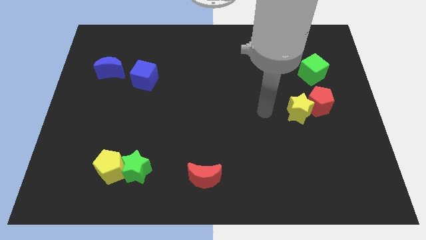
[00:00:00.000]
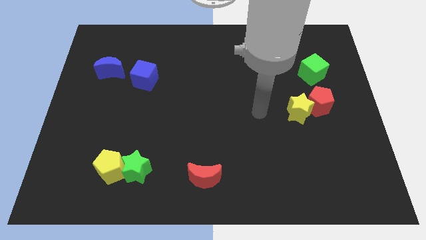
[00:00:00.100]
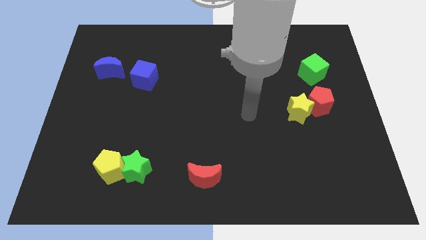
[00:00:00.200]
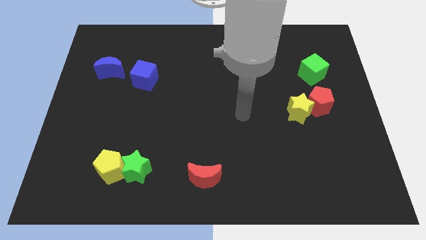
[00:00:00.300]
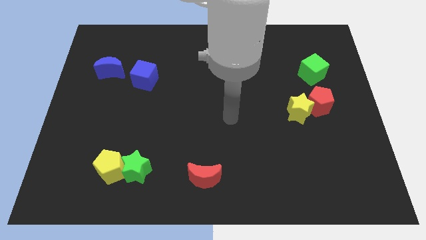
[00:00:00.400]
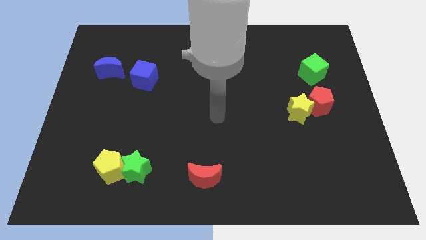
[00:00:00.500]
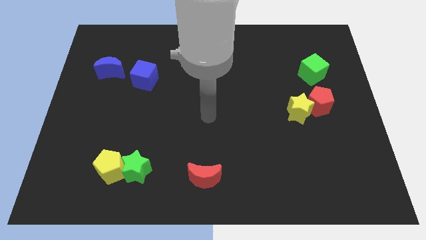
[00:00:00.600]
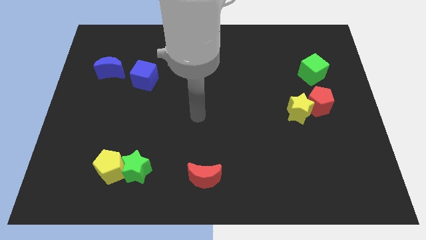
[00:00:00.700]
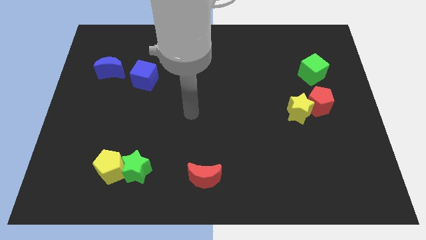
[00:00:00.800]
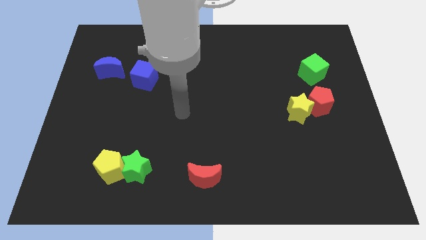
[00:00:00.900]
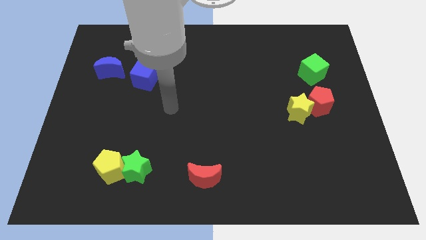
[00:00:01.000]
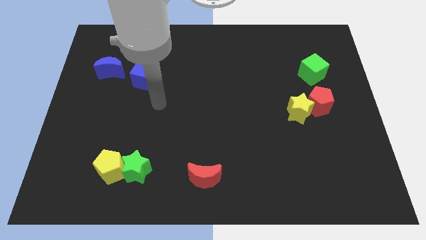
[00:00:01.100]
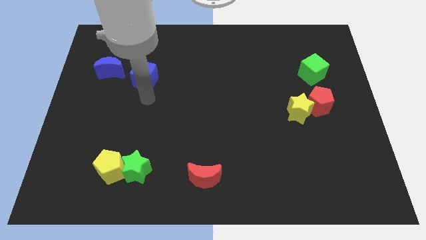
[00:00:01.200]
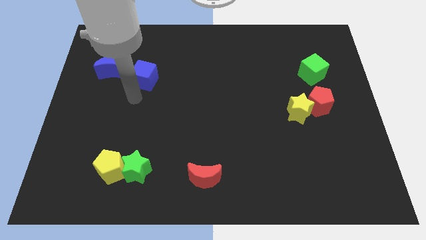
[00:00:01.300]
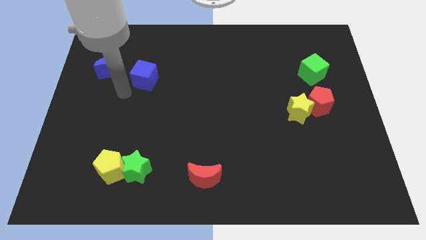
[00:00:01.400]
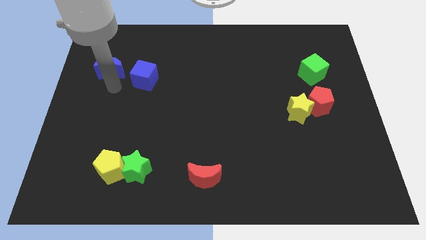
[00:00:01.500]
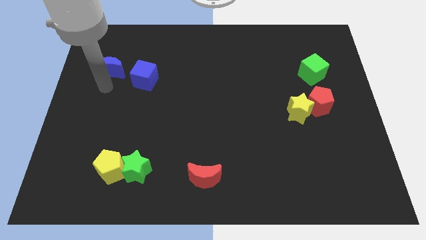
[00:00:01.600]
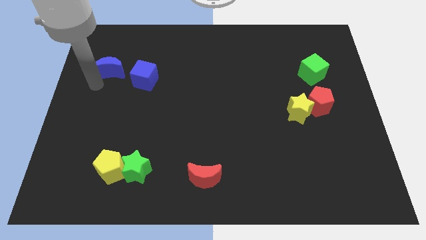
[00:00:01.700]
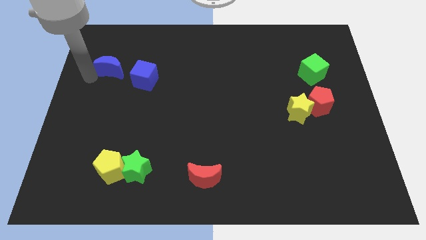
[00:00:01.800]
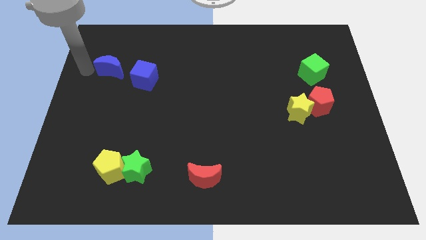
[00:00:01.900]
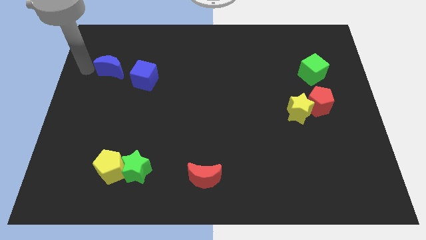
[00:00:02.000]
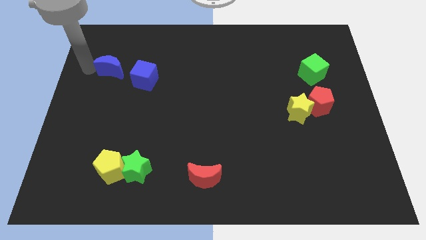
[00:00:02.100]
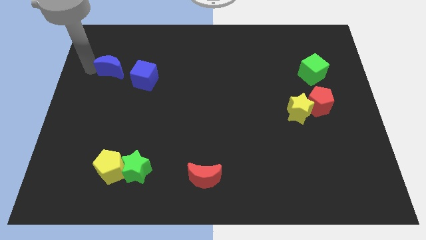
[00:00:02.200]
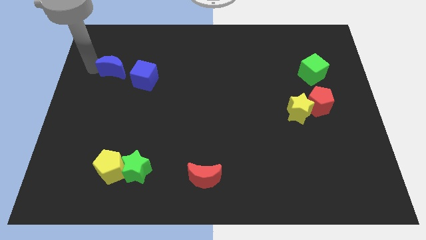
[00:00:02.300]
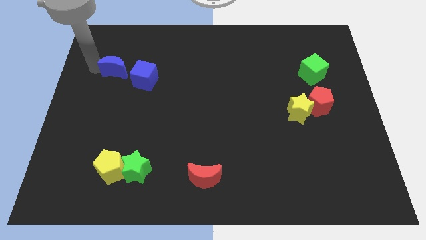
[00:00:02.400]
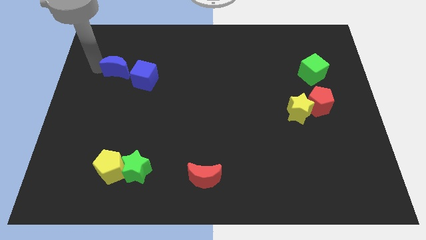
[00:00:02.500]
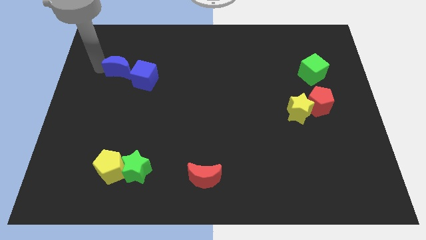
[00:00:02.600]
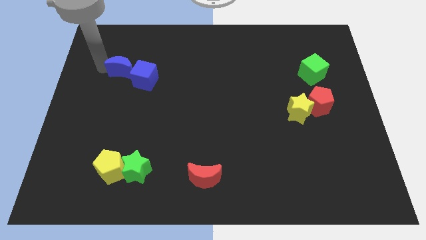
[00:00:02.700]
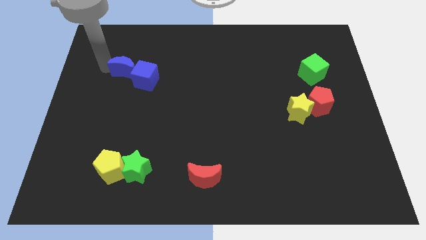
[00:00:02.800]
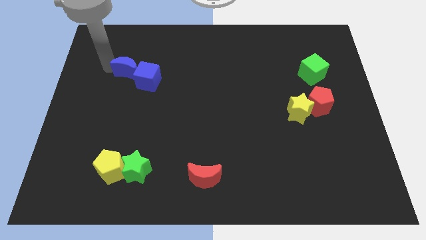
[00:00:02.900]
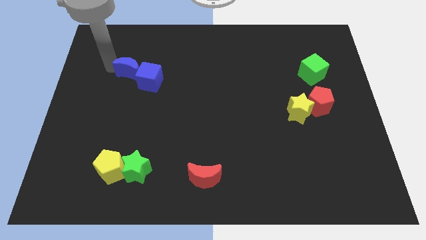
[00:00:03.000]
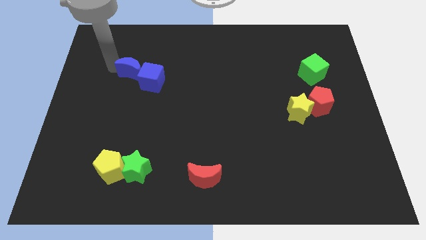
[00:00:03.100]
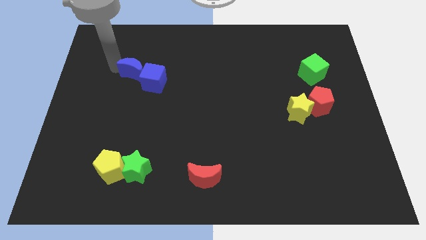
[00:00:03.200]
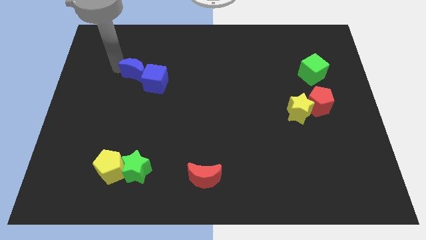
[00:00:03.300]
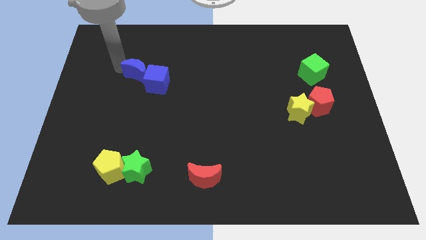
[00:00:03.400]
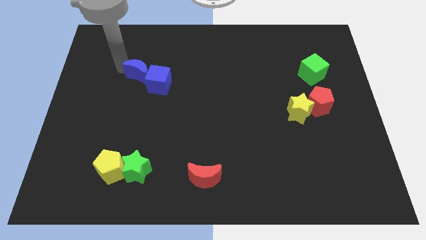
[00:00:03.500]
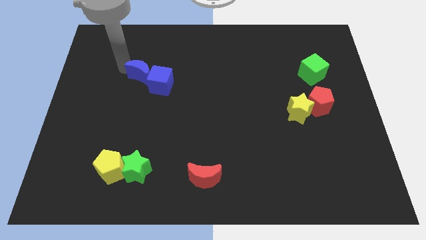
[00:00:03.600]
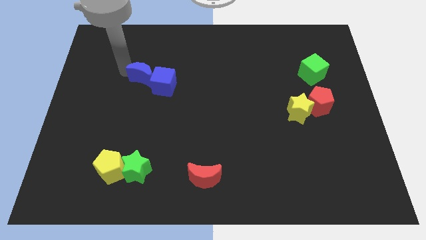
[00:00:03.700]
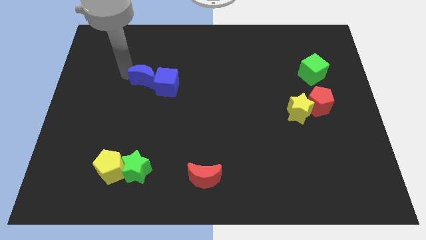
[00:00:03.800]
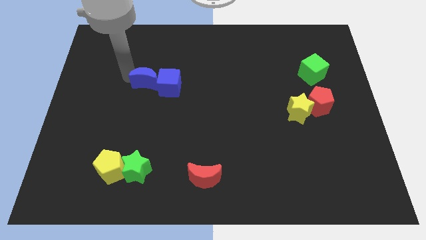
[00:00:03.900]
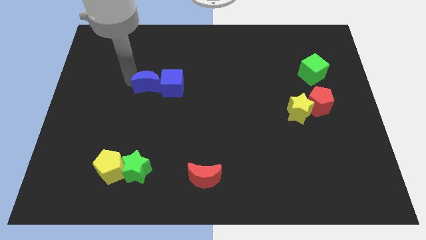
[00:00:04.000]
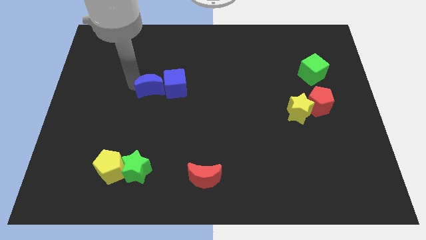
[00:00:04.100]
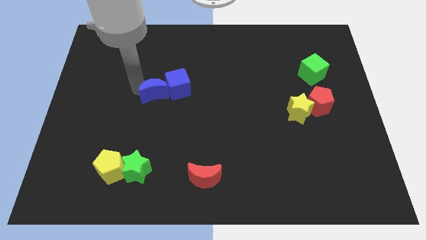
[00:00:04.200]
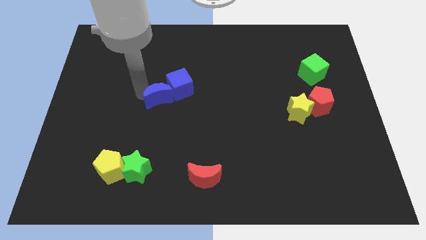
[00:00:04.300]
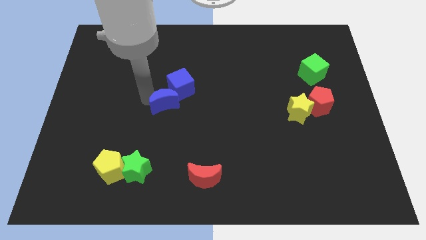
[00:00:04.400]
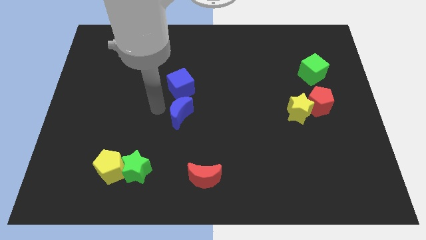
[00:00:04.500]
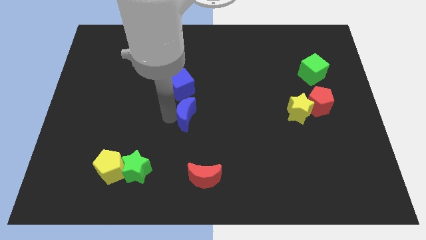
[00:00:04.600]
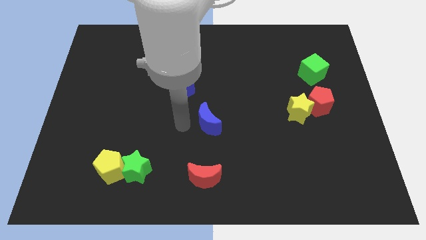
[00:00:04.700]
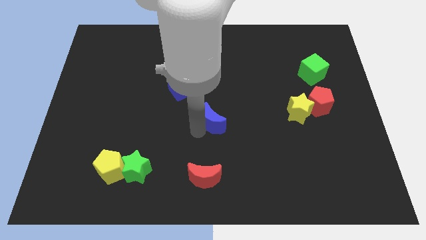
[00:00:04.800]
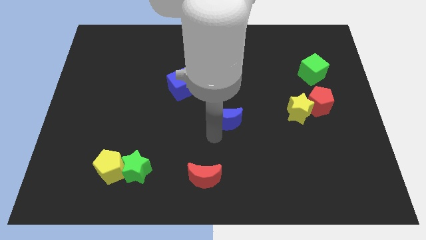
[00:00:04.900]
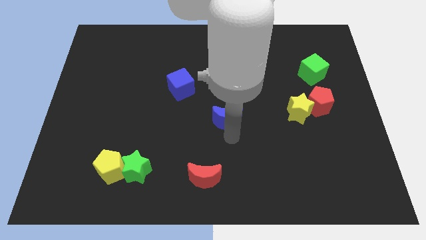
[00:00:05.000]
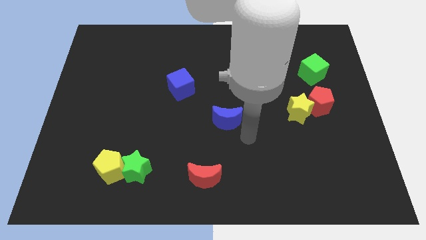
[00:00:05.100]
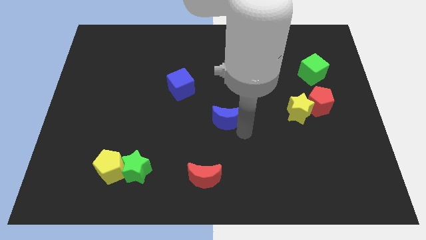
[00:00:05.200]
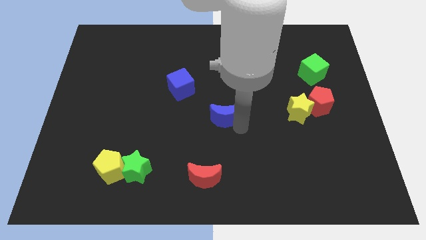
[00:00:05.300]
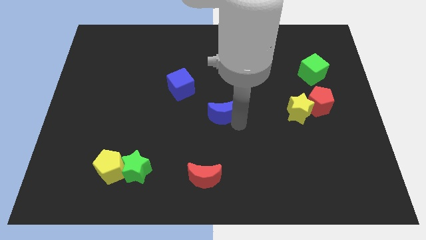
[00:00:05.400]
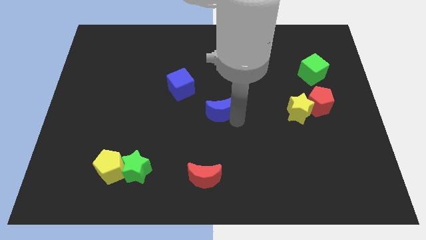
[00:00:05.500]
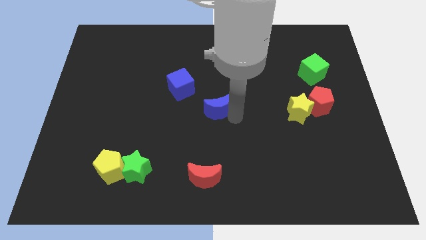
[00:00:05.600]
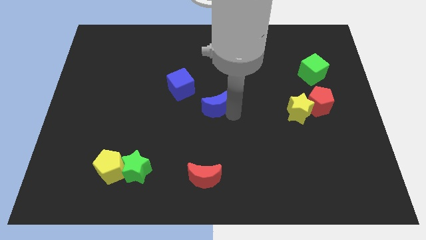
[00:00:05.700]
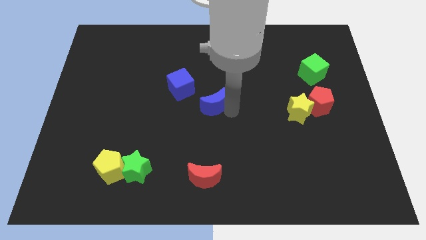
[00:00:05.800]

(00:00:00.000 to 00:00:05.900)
slide the blue moon right

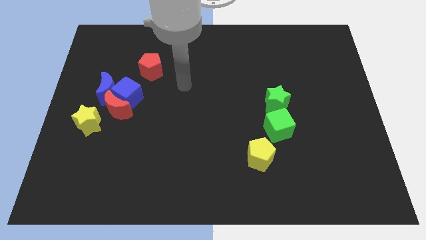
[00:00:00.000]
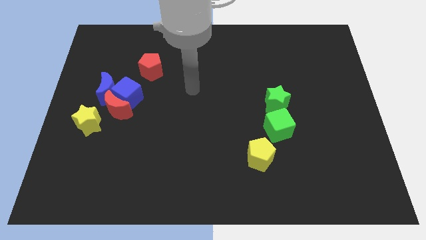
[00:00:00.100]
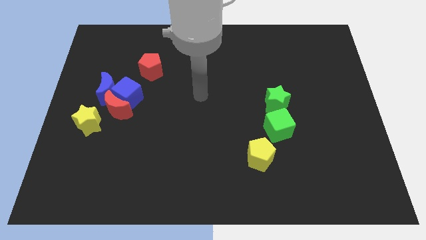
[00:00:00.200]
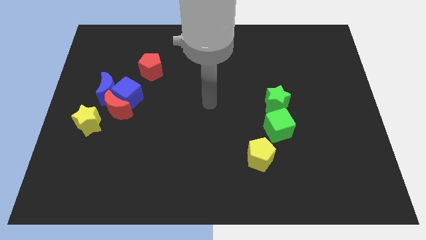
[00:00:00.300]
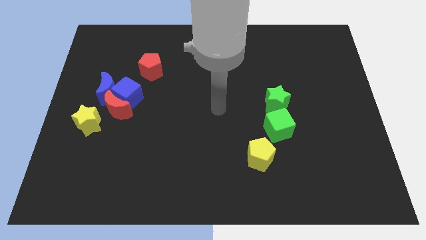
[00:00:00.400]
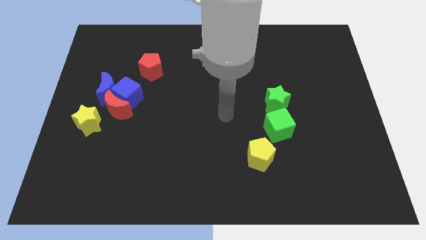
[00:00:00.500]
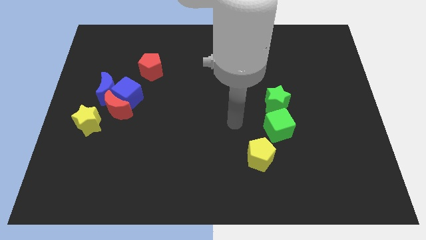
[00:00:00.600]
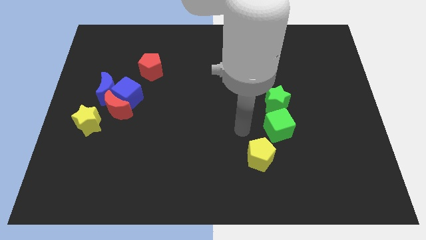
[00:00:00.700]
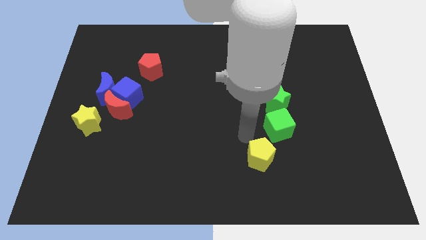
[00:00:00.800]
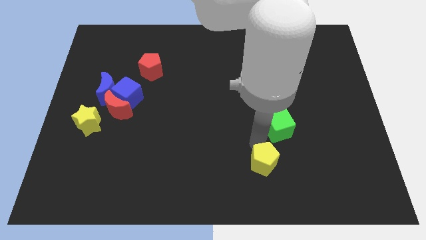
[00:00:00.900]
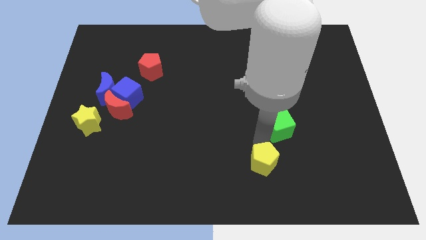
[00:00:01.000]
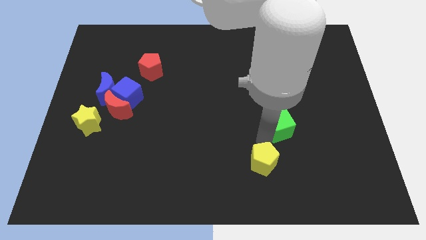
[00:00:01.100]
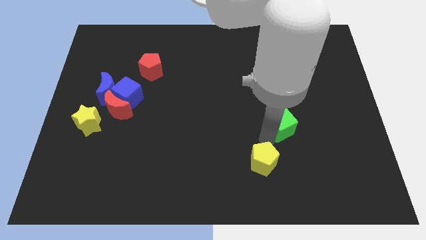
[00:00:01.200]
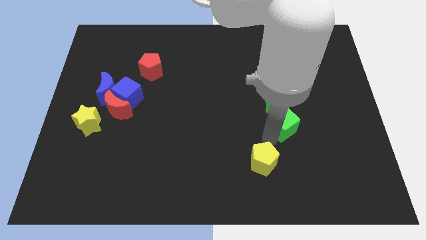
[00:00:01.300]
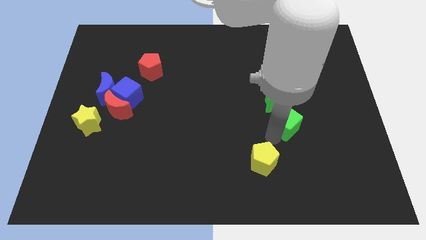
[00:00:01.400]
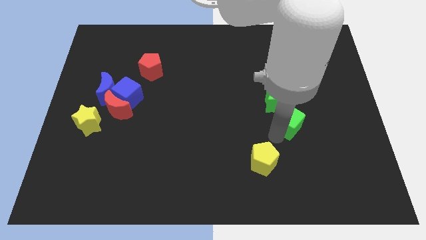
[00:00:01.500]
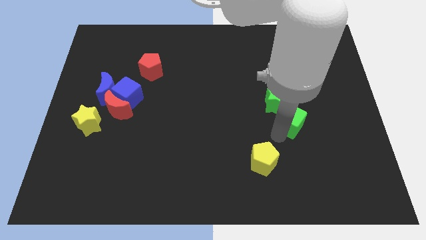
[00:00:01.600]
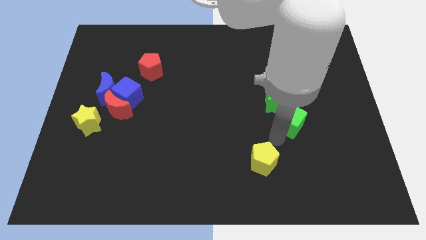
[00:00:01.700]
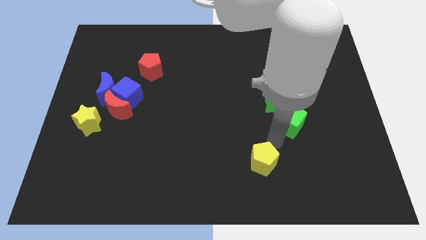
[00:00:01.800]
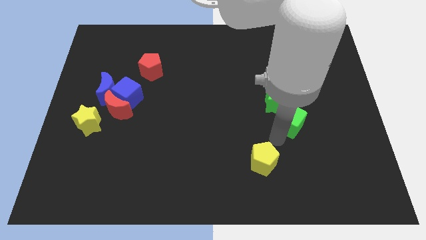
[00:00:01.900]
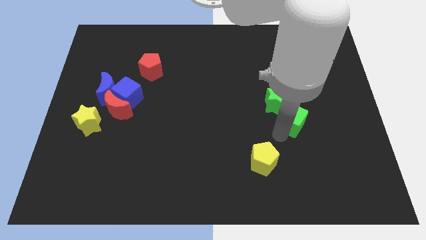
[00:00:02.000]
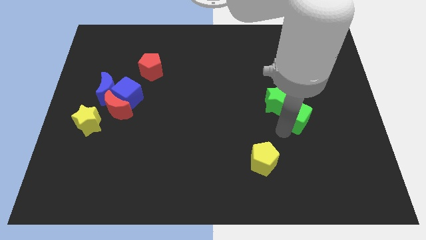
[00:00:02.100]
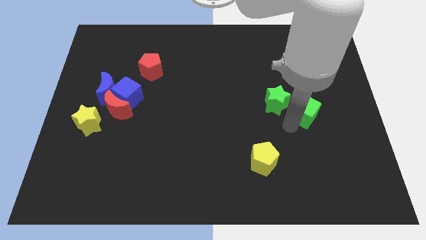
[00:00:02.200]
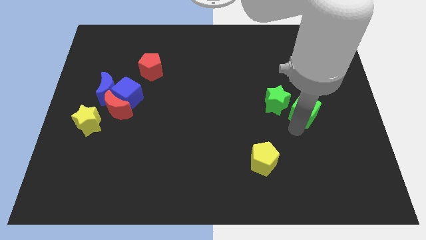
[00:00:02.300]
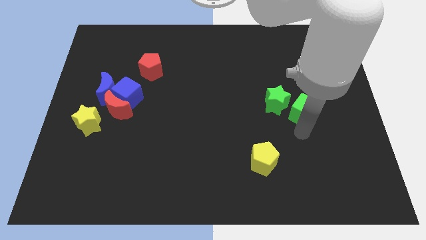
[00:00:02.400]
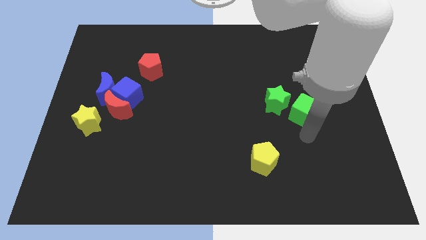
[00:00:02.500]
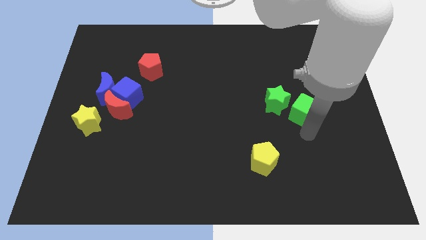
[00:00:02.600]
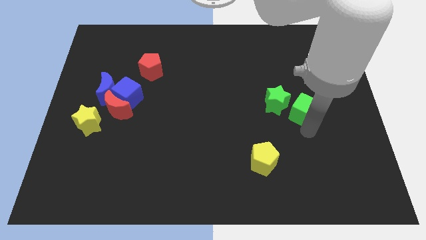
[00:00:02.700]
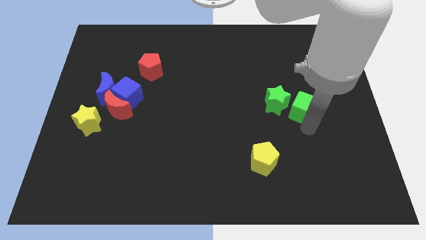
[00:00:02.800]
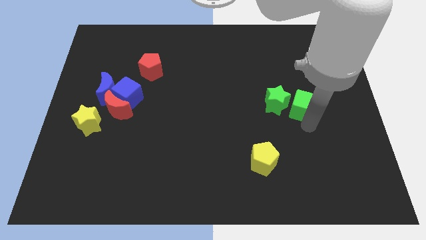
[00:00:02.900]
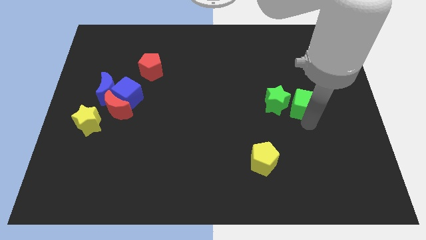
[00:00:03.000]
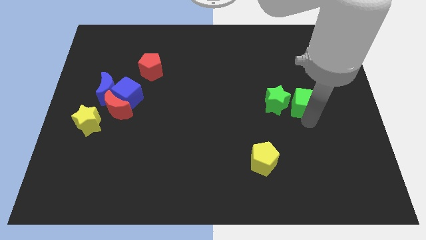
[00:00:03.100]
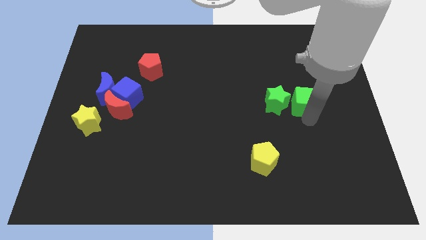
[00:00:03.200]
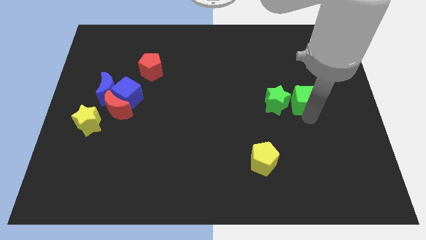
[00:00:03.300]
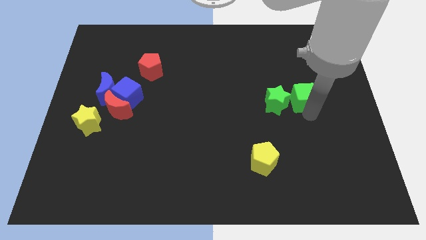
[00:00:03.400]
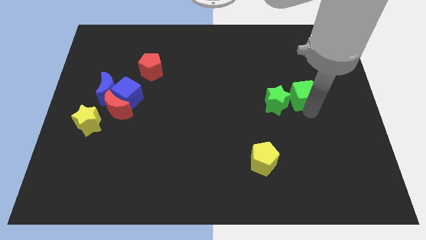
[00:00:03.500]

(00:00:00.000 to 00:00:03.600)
slightly move the green cube upwards
